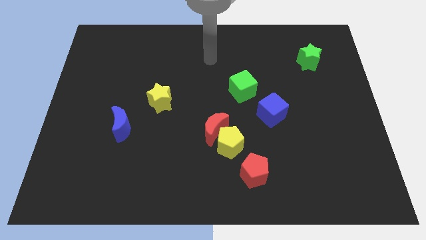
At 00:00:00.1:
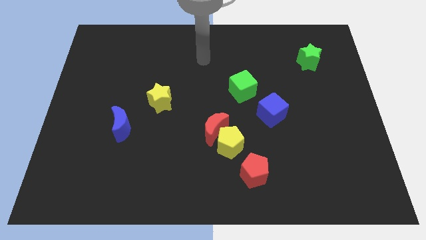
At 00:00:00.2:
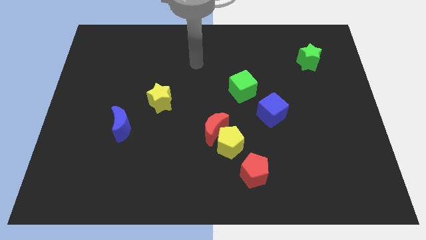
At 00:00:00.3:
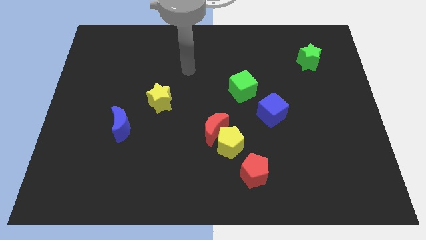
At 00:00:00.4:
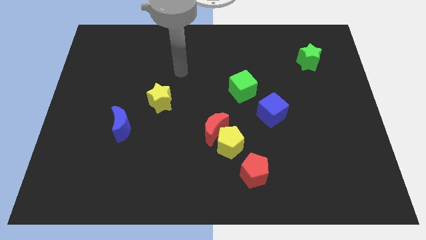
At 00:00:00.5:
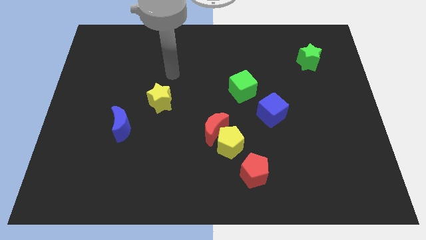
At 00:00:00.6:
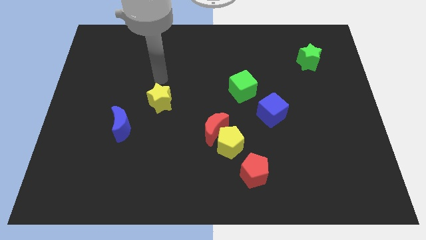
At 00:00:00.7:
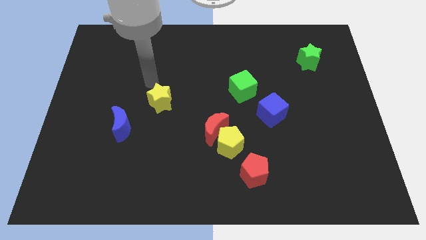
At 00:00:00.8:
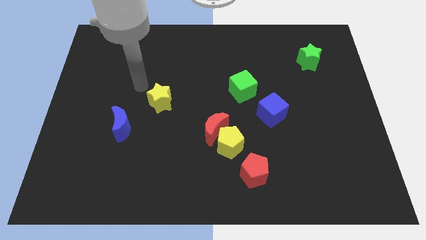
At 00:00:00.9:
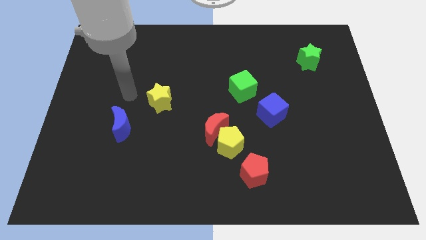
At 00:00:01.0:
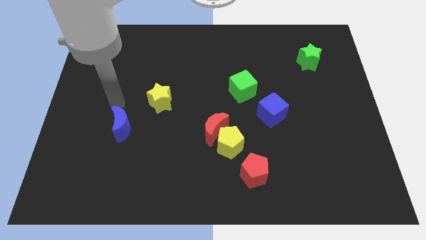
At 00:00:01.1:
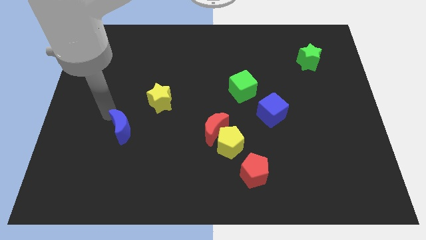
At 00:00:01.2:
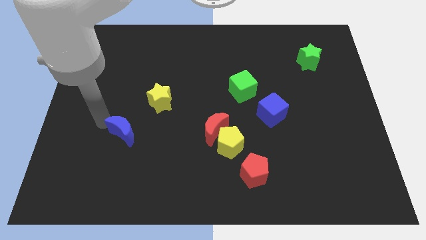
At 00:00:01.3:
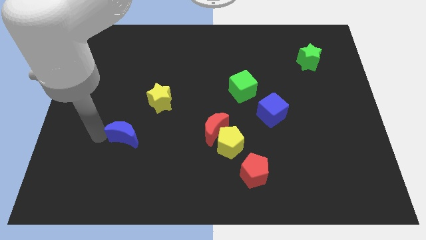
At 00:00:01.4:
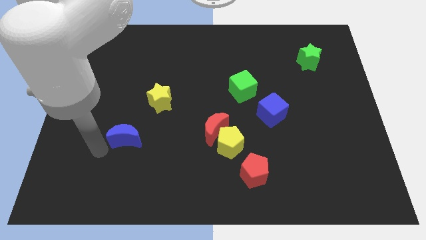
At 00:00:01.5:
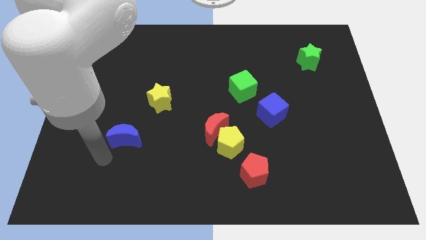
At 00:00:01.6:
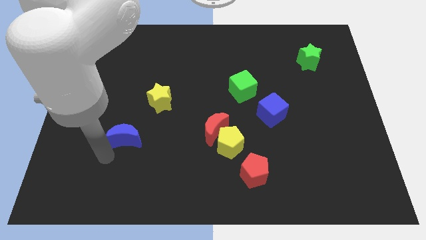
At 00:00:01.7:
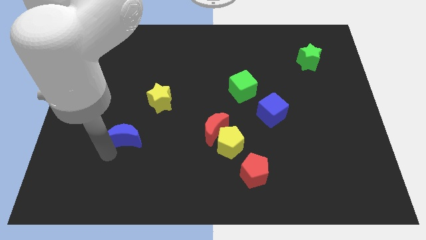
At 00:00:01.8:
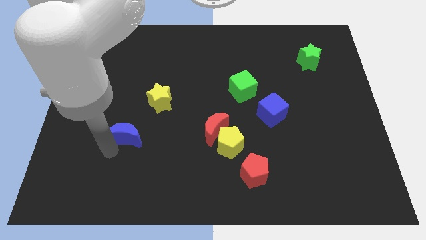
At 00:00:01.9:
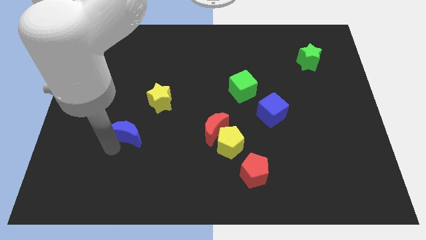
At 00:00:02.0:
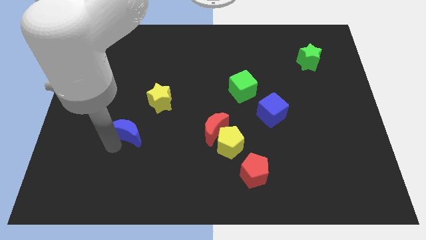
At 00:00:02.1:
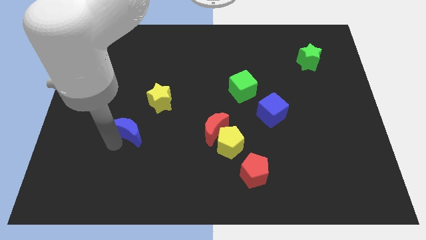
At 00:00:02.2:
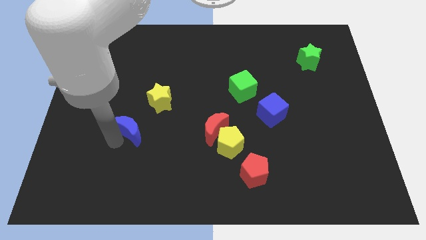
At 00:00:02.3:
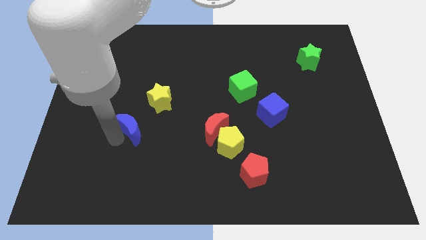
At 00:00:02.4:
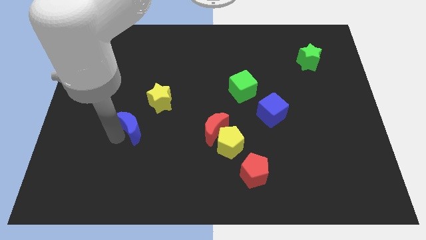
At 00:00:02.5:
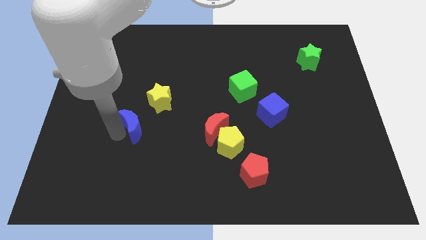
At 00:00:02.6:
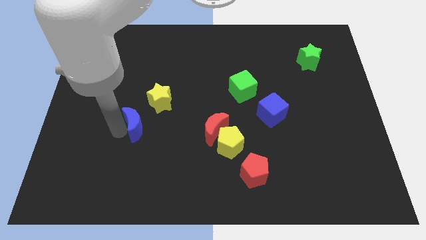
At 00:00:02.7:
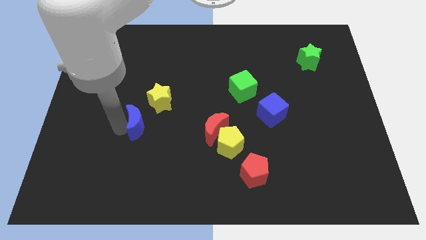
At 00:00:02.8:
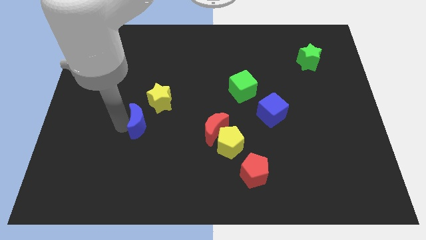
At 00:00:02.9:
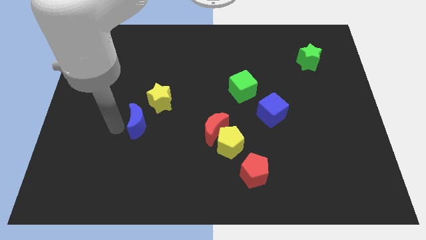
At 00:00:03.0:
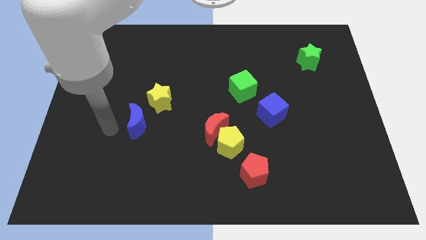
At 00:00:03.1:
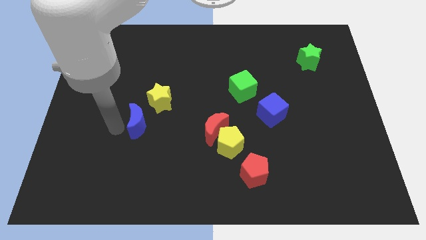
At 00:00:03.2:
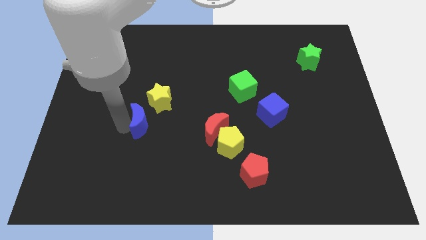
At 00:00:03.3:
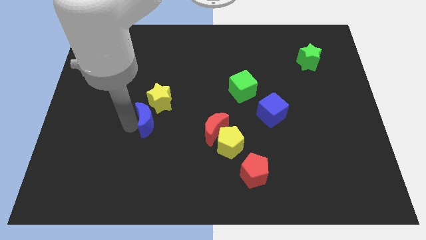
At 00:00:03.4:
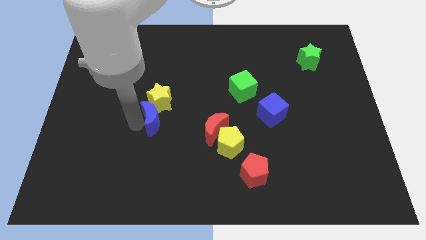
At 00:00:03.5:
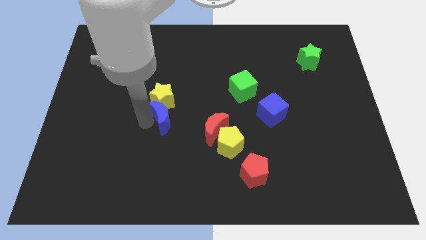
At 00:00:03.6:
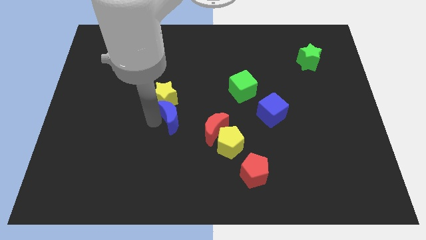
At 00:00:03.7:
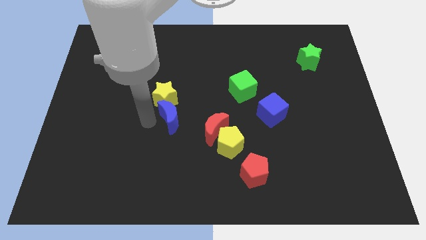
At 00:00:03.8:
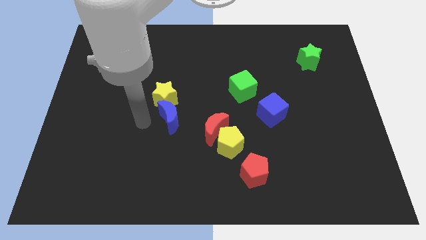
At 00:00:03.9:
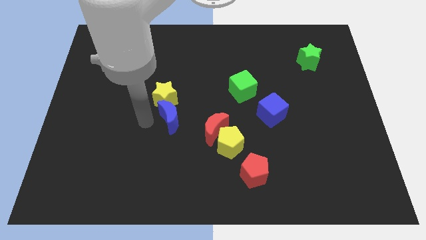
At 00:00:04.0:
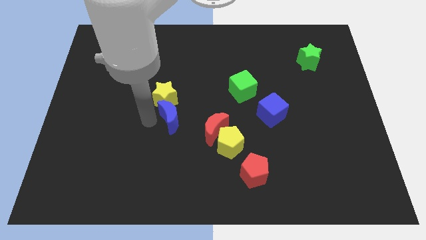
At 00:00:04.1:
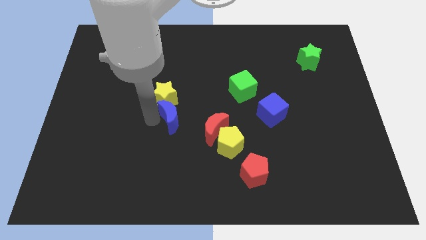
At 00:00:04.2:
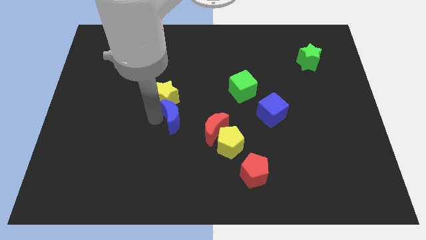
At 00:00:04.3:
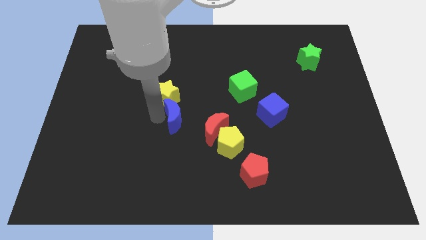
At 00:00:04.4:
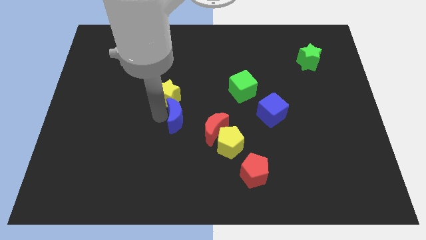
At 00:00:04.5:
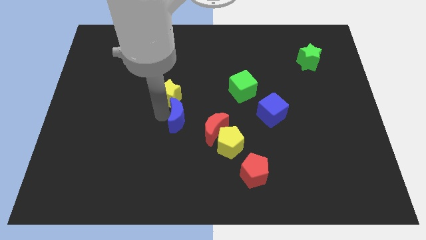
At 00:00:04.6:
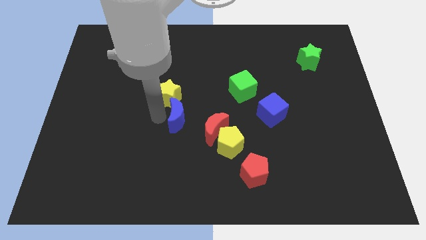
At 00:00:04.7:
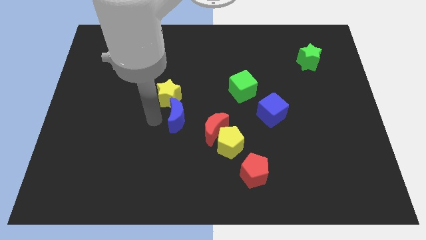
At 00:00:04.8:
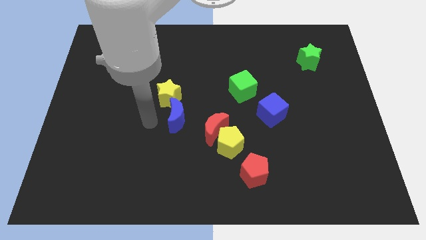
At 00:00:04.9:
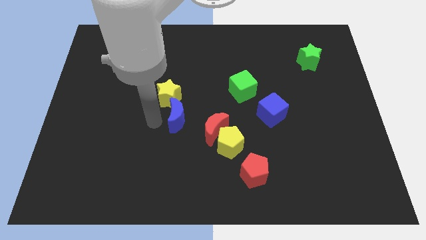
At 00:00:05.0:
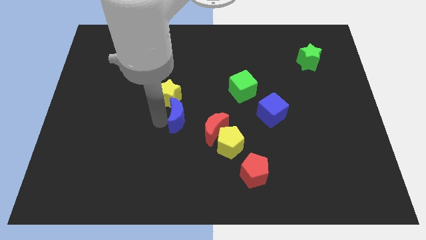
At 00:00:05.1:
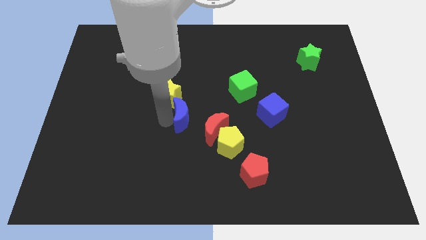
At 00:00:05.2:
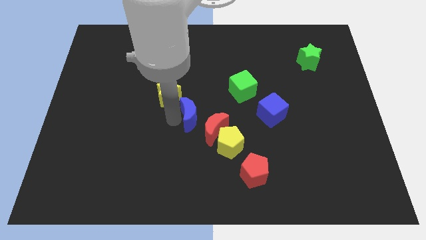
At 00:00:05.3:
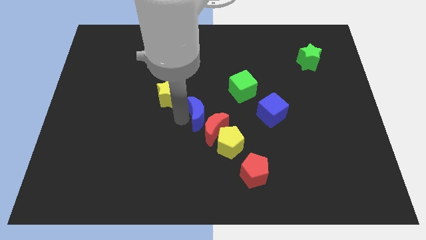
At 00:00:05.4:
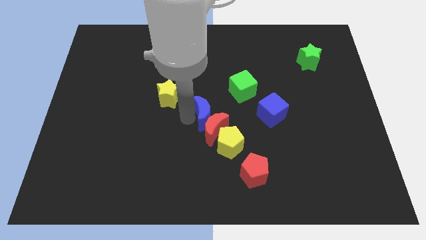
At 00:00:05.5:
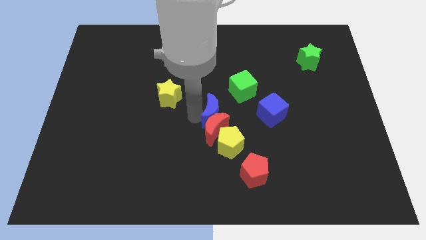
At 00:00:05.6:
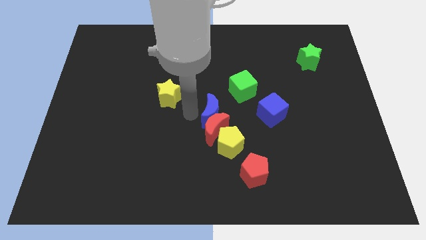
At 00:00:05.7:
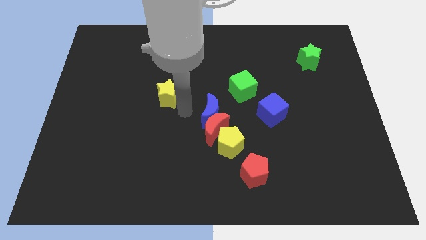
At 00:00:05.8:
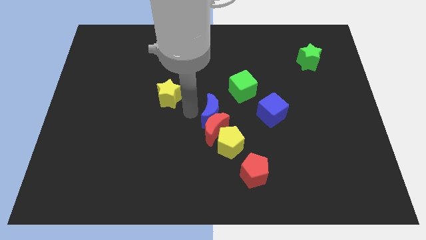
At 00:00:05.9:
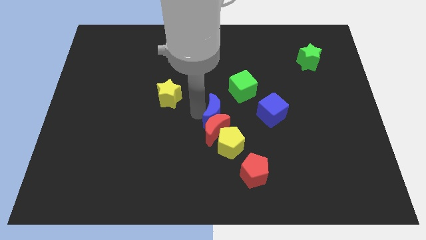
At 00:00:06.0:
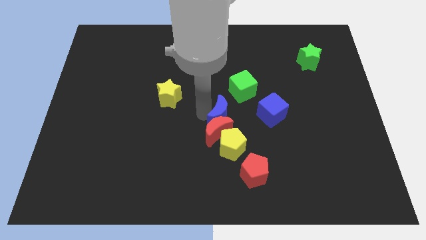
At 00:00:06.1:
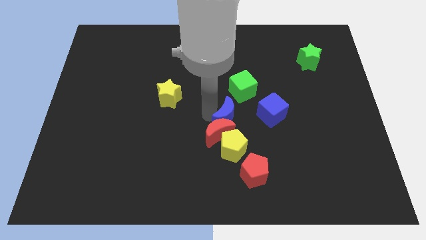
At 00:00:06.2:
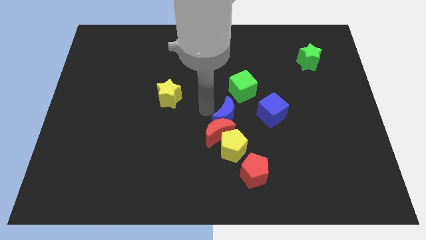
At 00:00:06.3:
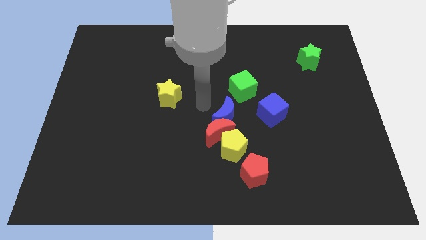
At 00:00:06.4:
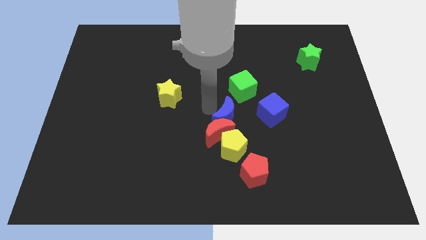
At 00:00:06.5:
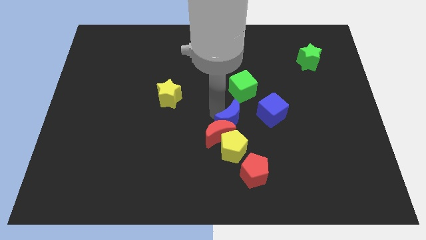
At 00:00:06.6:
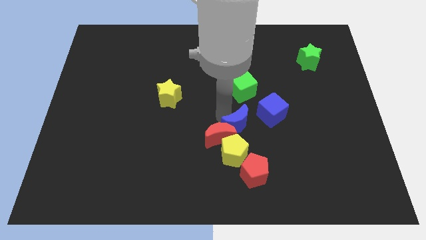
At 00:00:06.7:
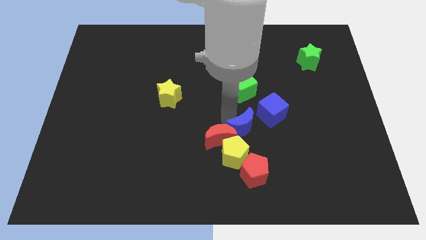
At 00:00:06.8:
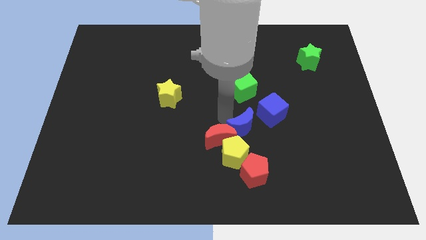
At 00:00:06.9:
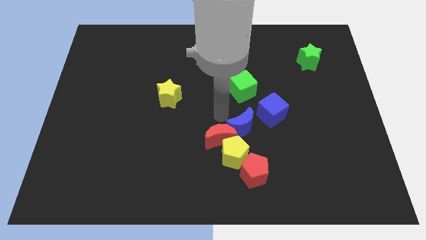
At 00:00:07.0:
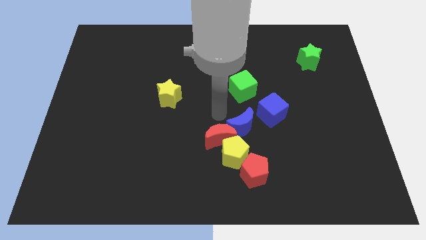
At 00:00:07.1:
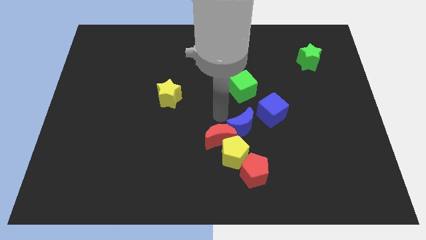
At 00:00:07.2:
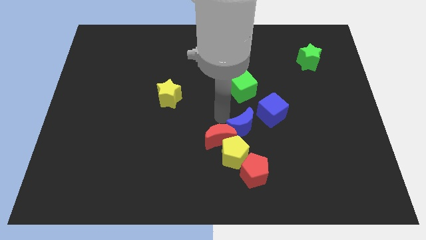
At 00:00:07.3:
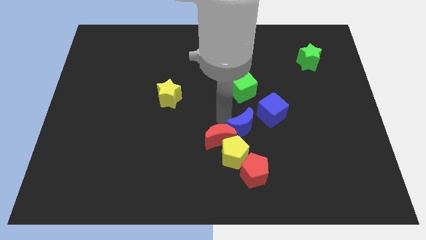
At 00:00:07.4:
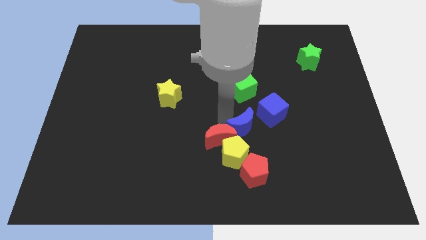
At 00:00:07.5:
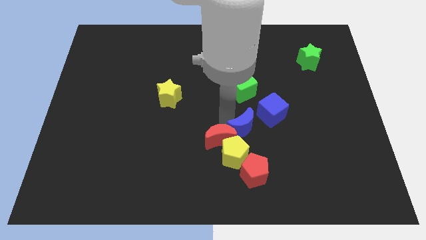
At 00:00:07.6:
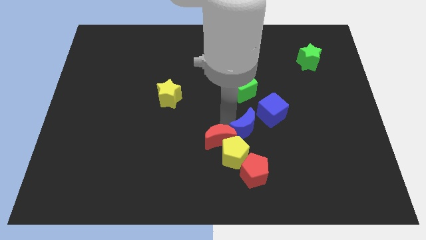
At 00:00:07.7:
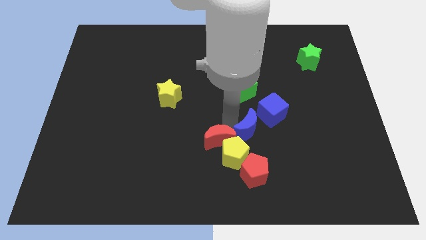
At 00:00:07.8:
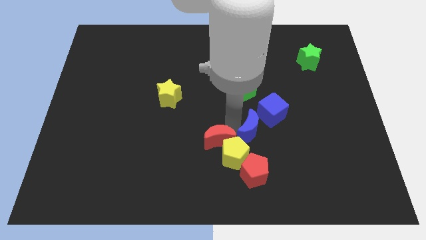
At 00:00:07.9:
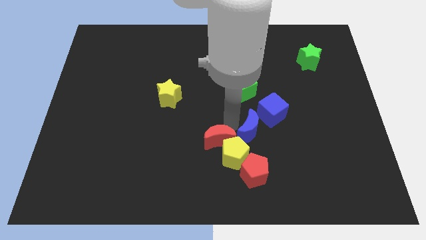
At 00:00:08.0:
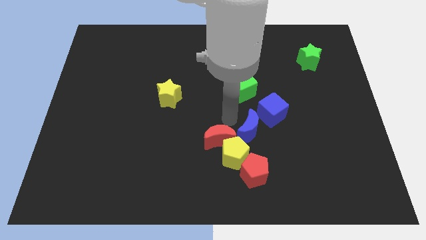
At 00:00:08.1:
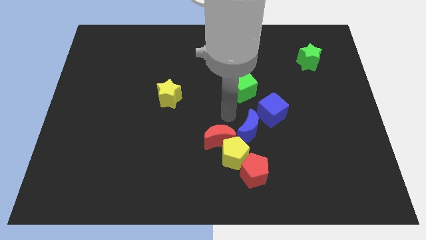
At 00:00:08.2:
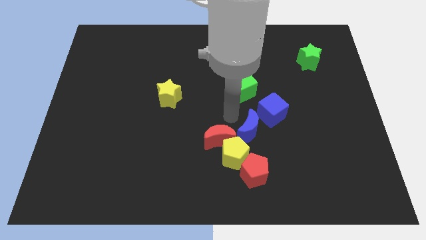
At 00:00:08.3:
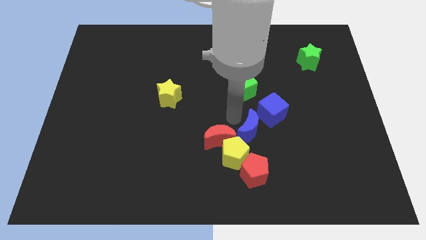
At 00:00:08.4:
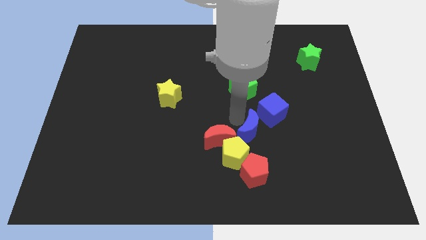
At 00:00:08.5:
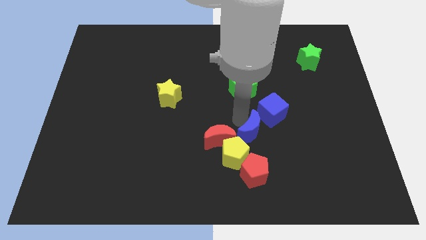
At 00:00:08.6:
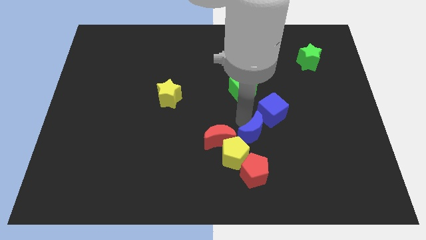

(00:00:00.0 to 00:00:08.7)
put the blue moon below the blue cube
